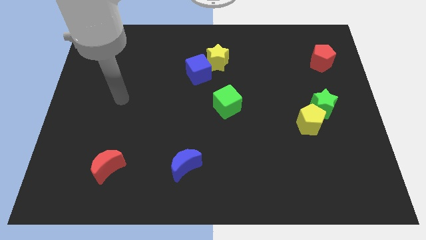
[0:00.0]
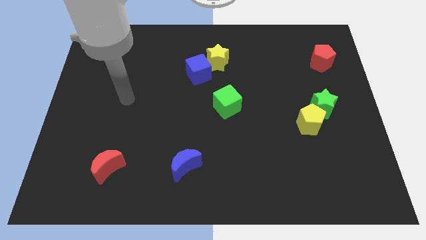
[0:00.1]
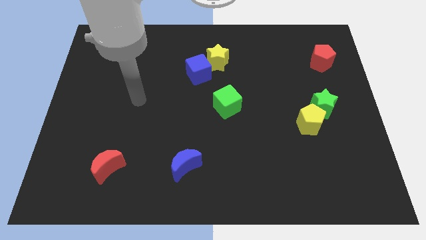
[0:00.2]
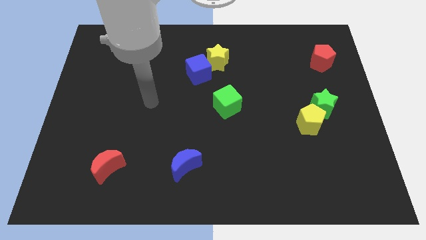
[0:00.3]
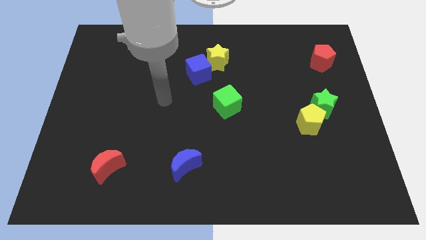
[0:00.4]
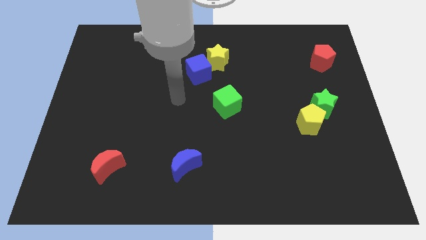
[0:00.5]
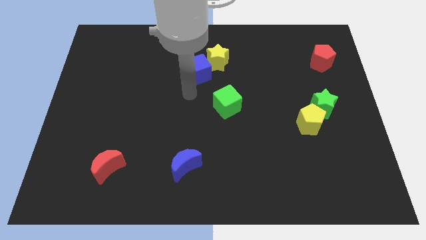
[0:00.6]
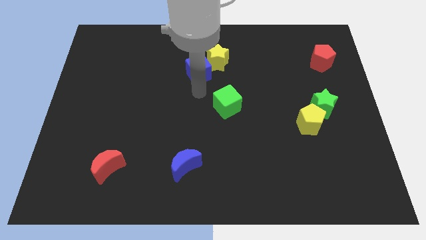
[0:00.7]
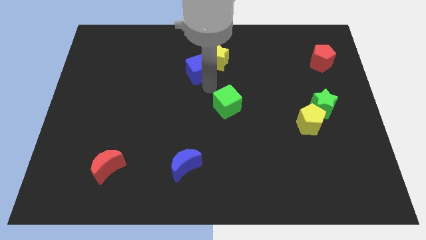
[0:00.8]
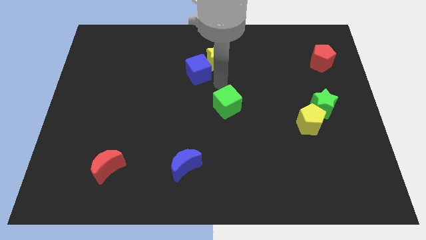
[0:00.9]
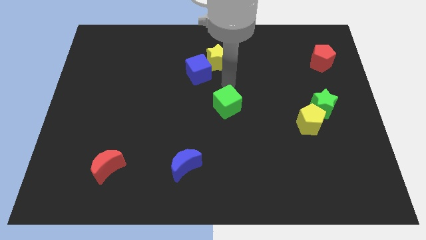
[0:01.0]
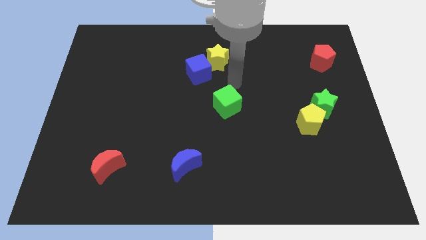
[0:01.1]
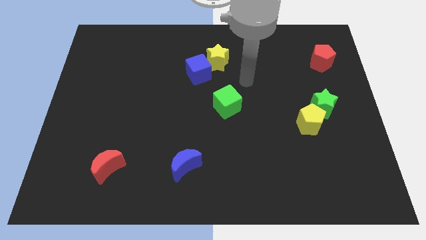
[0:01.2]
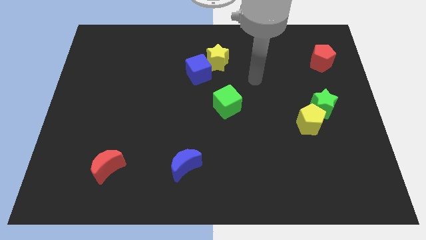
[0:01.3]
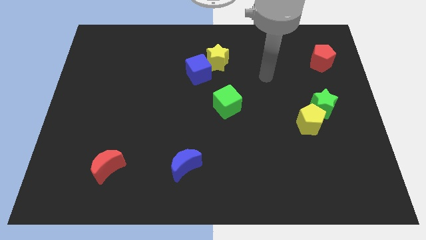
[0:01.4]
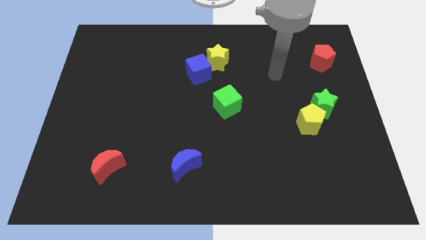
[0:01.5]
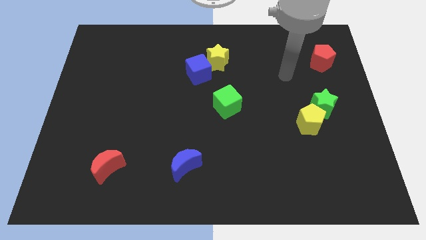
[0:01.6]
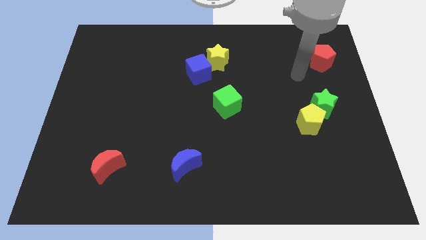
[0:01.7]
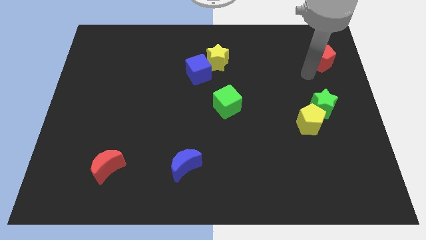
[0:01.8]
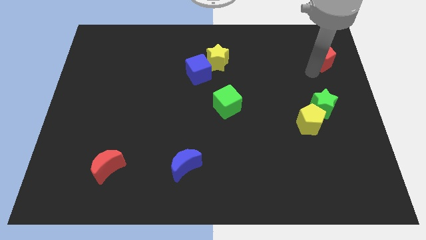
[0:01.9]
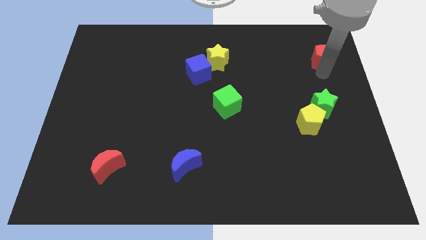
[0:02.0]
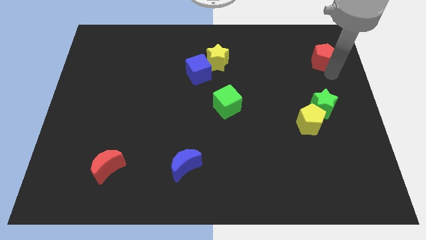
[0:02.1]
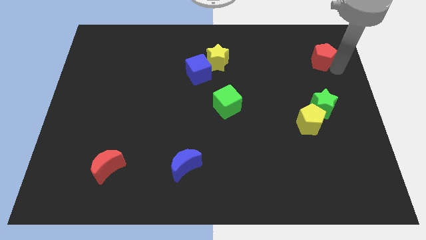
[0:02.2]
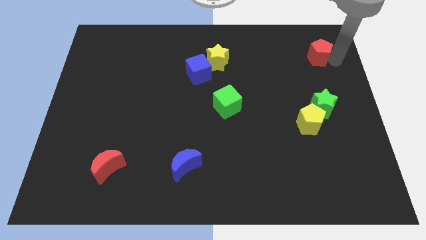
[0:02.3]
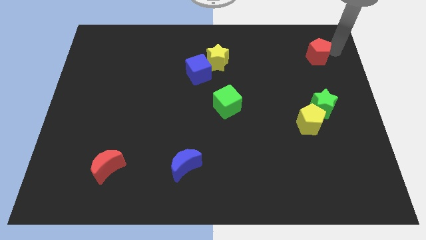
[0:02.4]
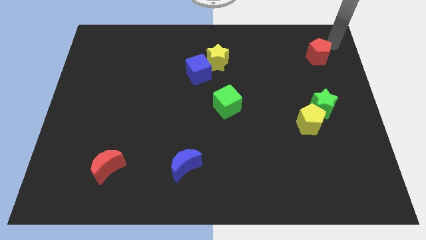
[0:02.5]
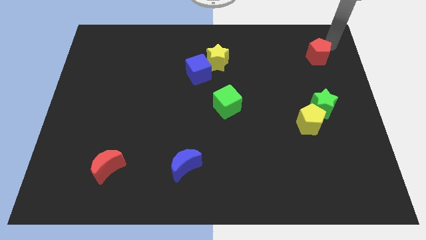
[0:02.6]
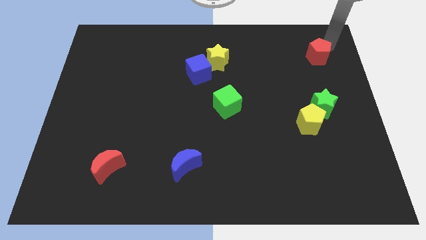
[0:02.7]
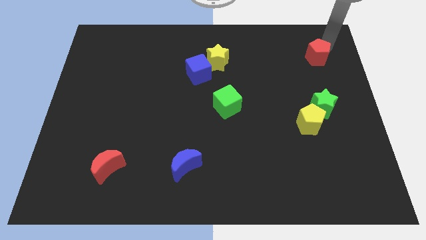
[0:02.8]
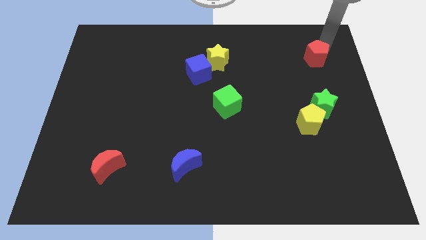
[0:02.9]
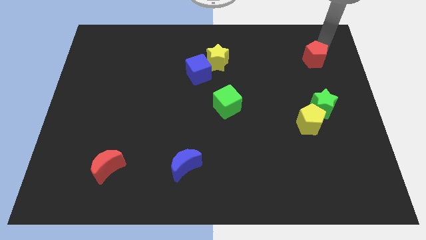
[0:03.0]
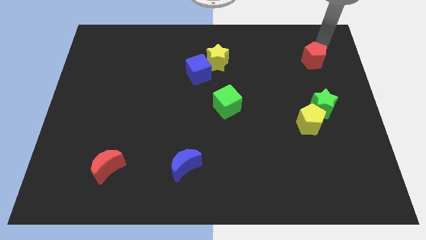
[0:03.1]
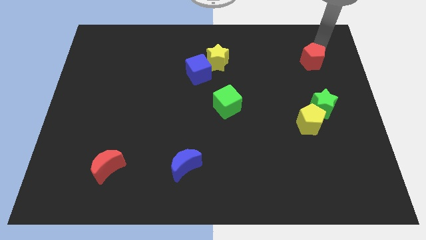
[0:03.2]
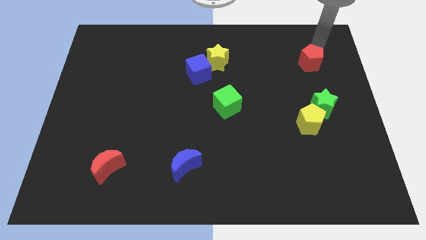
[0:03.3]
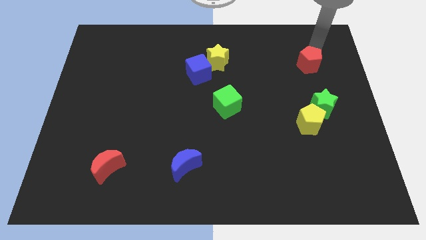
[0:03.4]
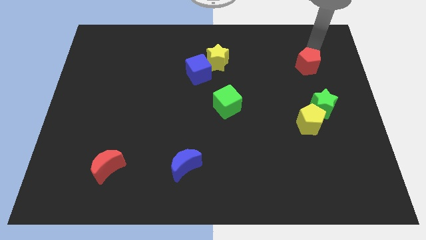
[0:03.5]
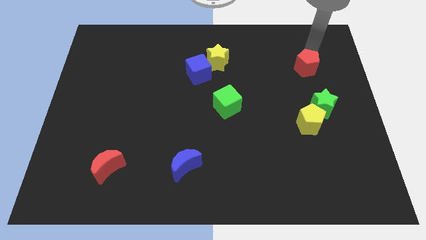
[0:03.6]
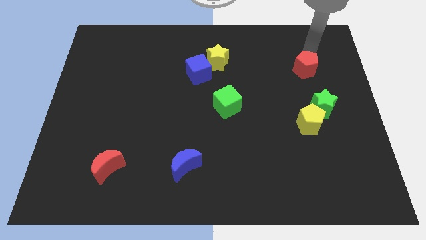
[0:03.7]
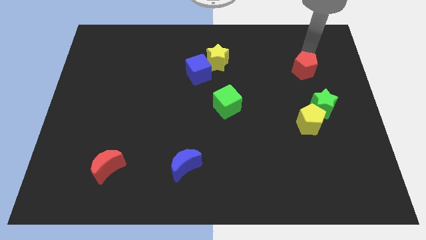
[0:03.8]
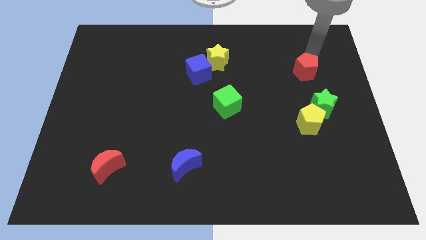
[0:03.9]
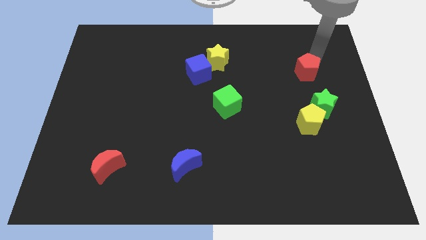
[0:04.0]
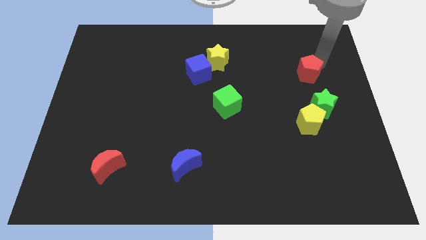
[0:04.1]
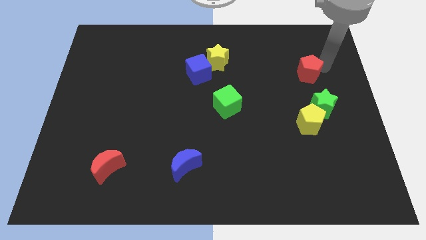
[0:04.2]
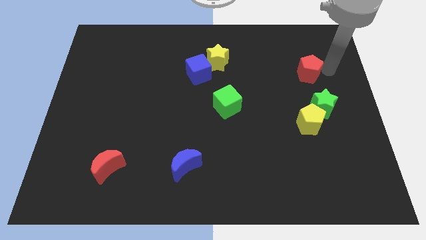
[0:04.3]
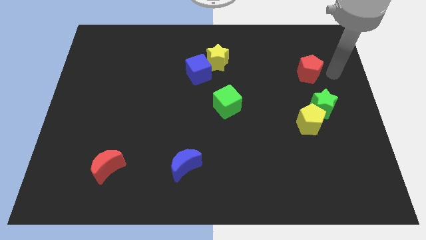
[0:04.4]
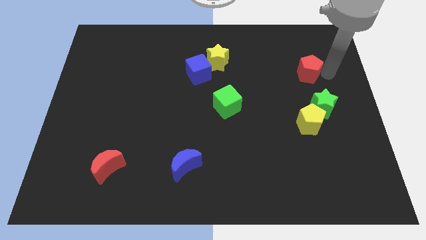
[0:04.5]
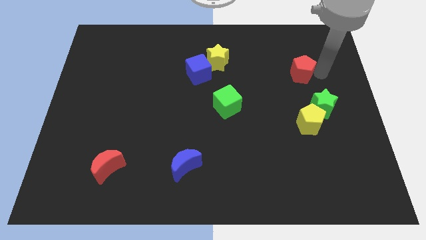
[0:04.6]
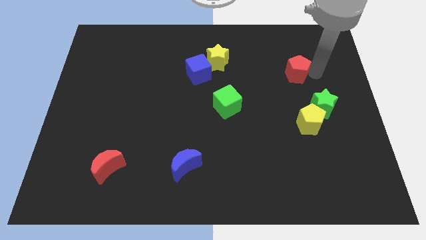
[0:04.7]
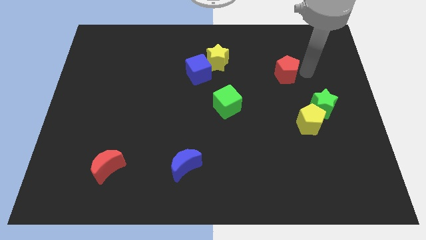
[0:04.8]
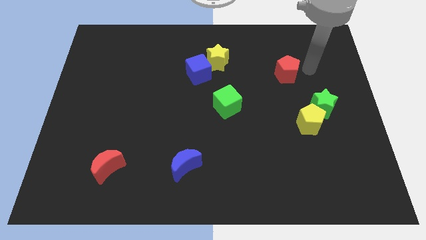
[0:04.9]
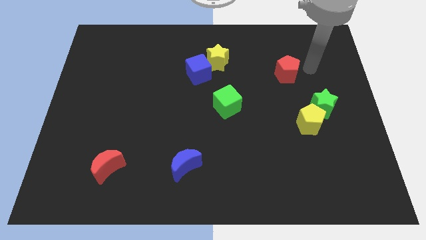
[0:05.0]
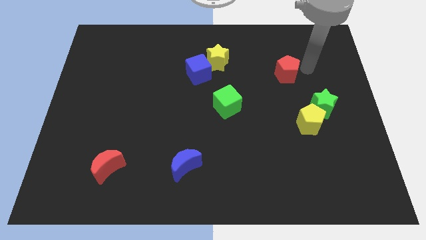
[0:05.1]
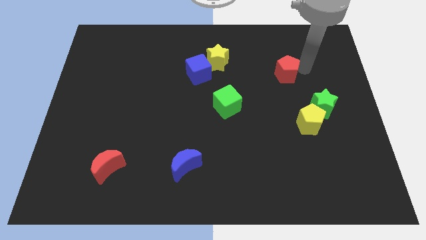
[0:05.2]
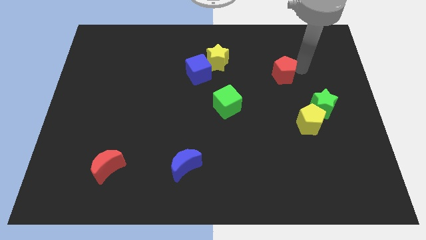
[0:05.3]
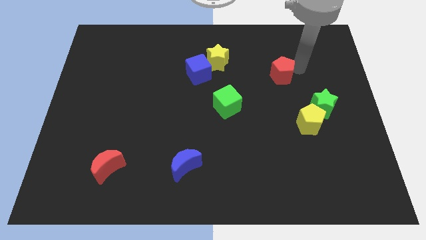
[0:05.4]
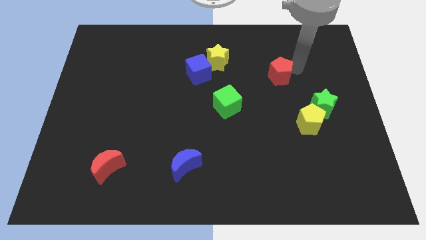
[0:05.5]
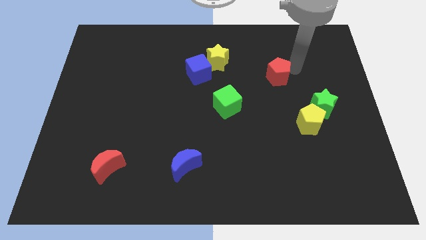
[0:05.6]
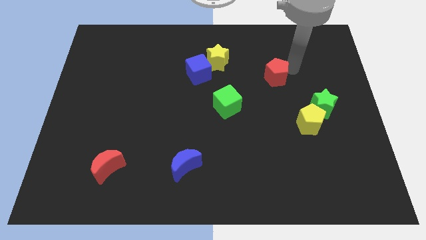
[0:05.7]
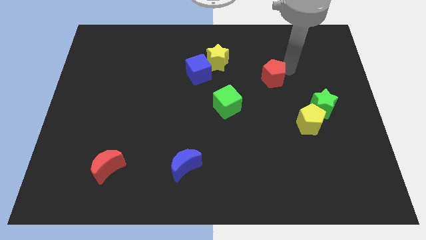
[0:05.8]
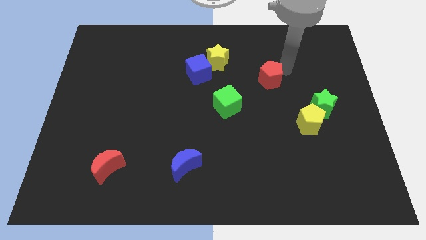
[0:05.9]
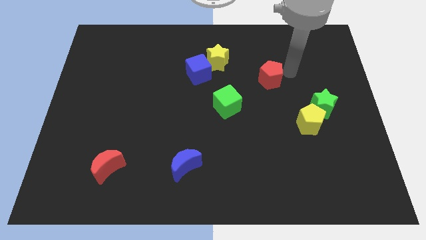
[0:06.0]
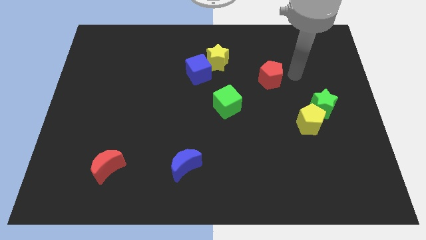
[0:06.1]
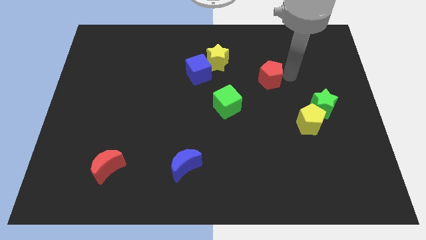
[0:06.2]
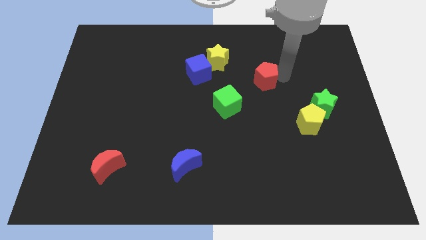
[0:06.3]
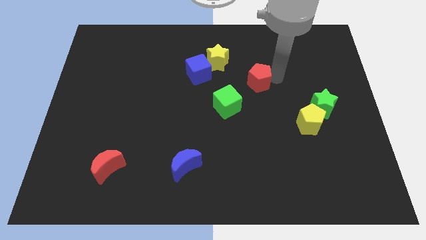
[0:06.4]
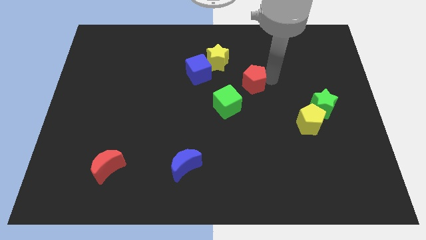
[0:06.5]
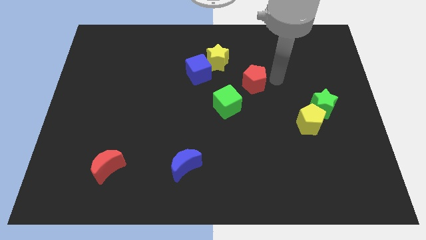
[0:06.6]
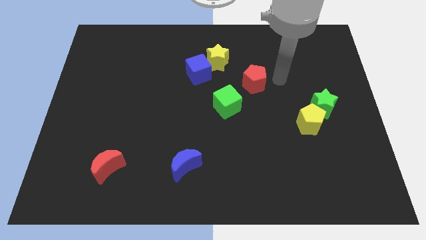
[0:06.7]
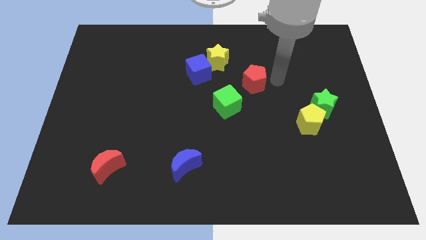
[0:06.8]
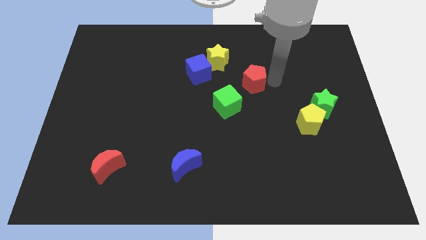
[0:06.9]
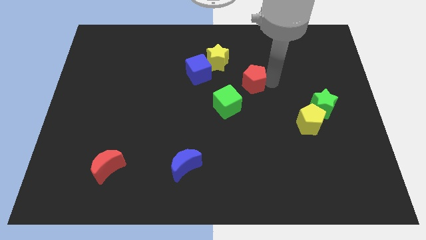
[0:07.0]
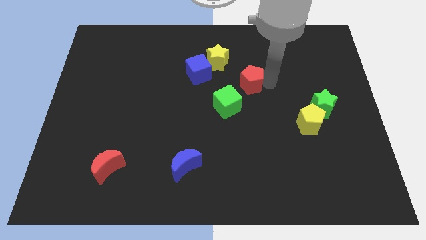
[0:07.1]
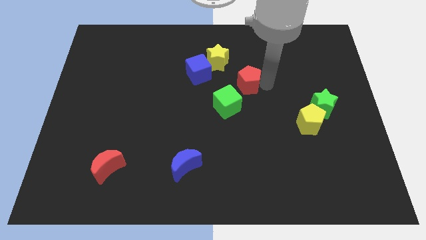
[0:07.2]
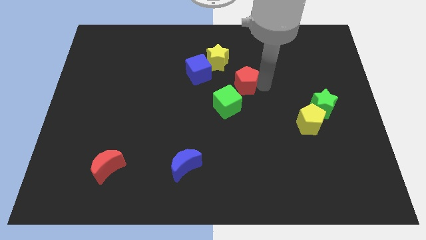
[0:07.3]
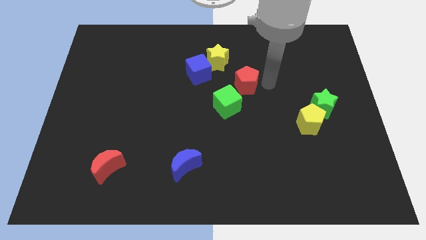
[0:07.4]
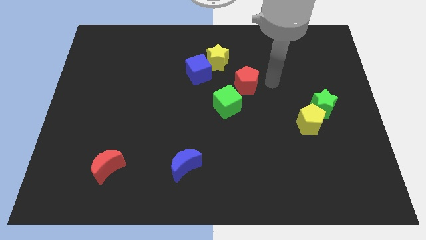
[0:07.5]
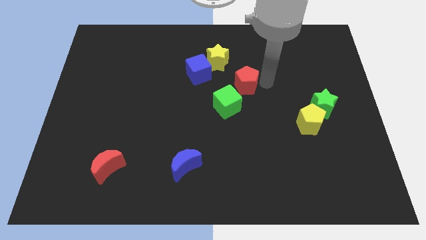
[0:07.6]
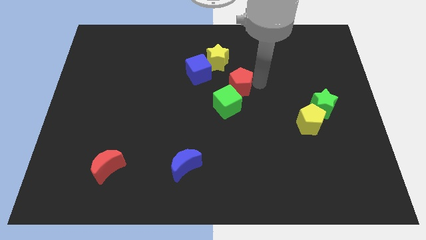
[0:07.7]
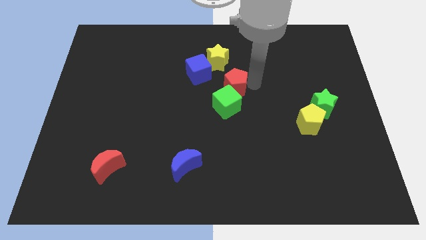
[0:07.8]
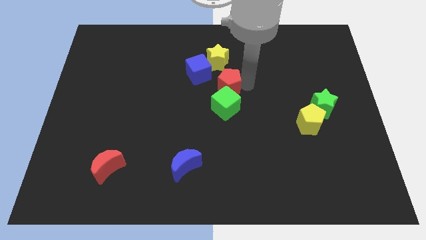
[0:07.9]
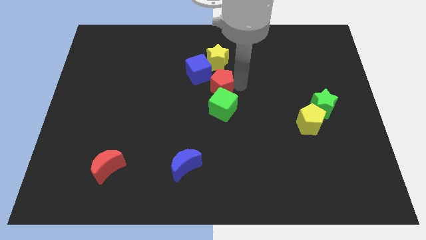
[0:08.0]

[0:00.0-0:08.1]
move the red pentagon to the top left side of the green cube
